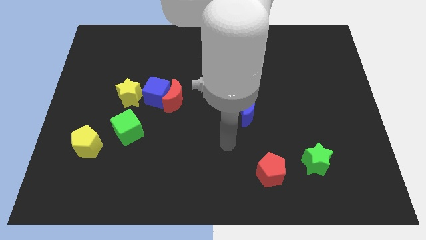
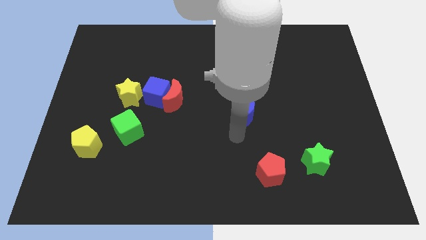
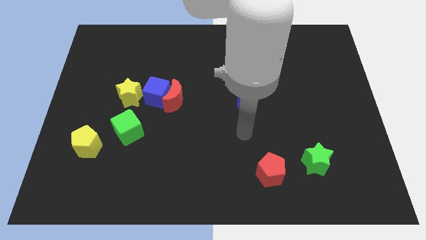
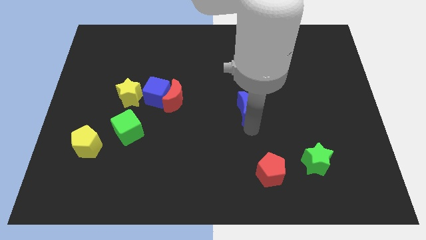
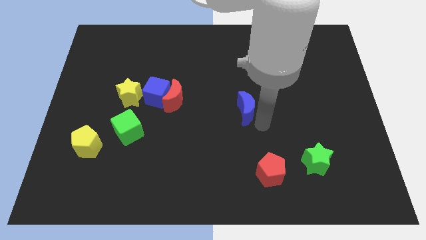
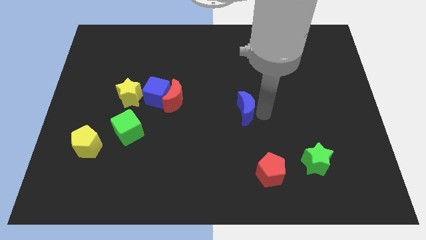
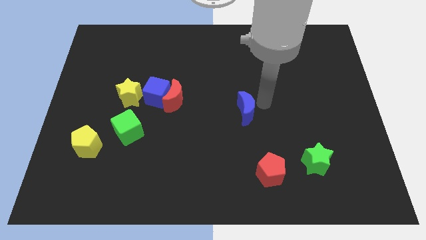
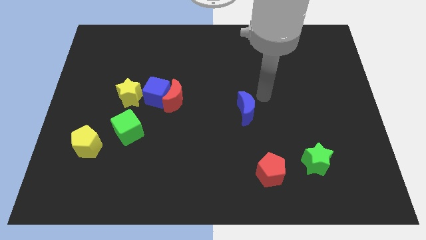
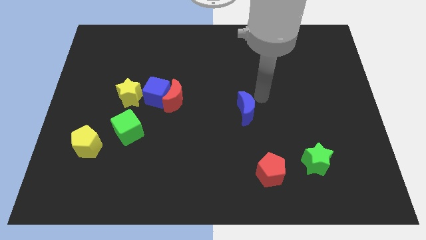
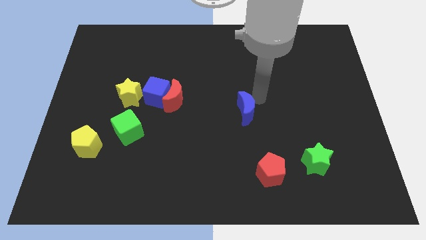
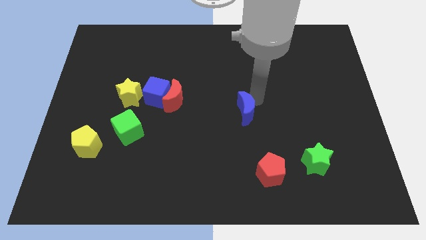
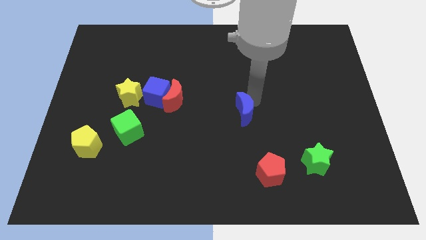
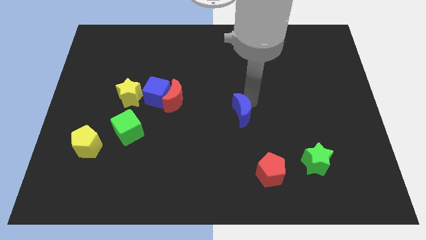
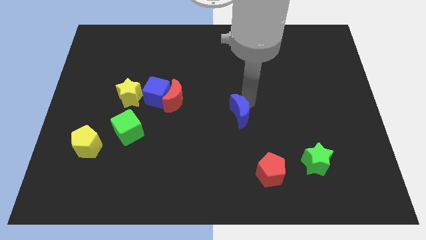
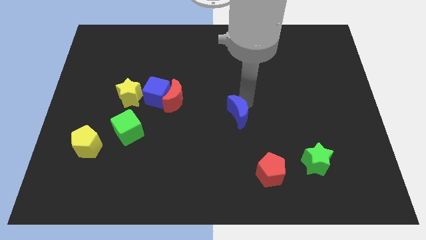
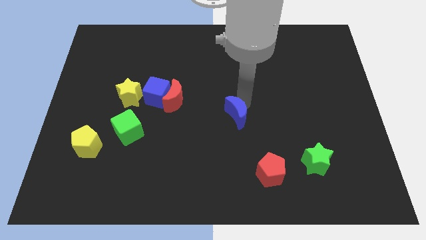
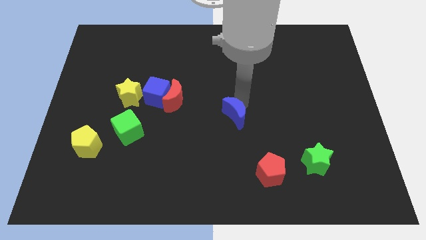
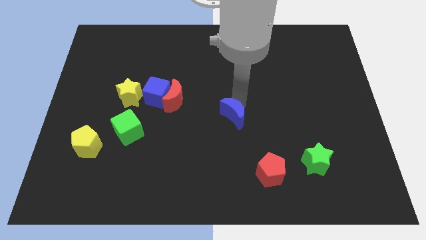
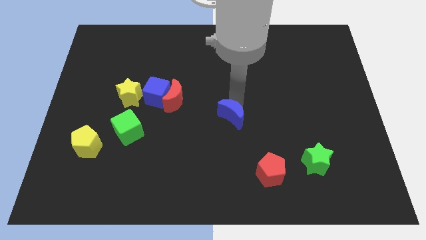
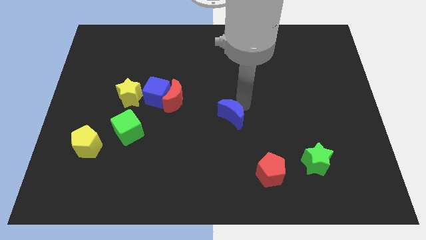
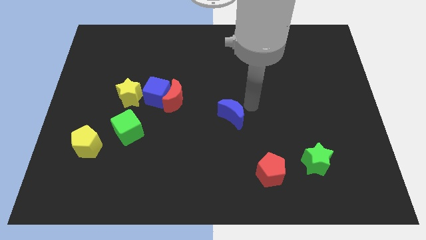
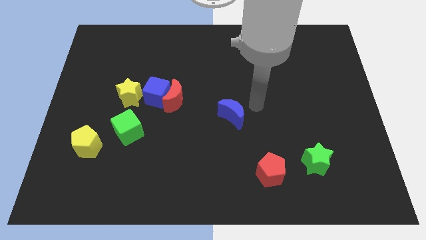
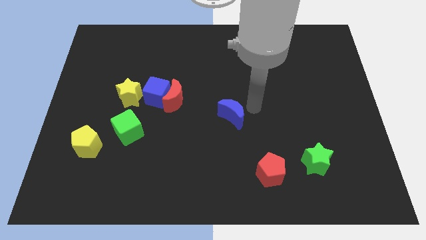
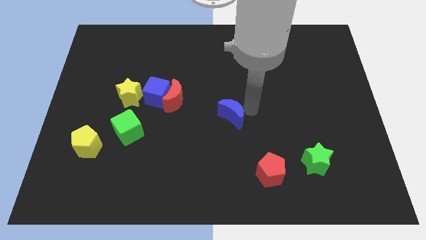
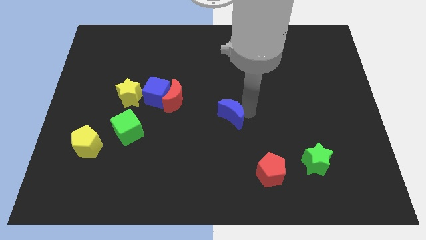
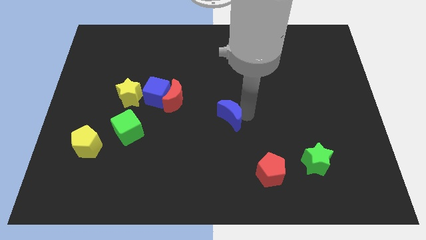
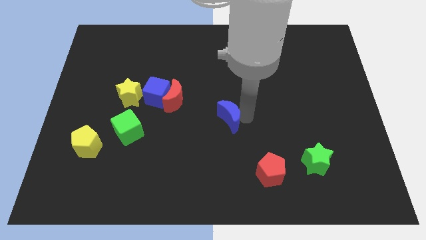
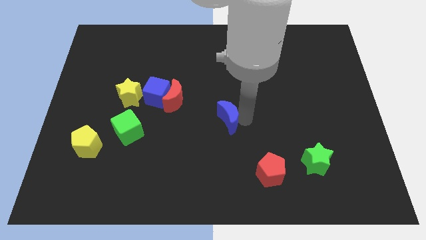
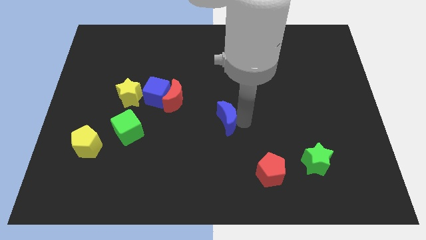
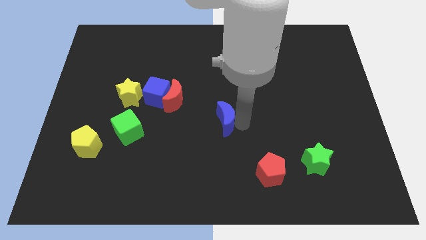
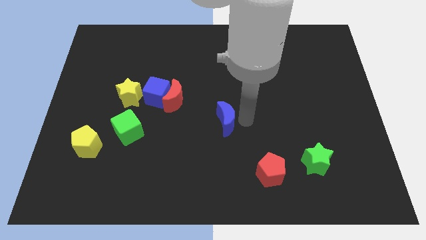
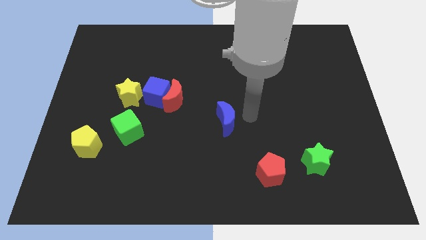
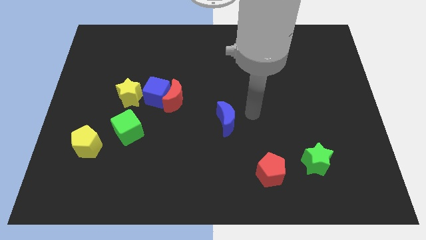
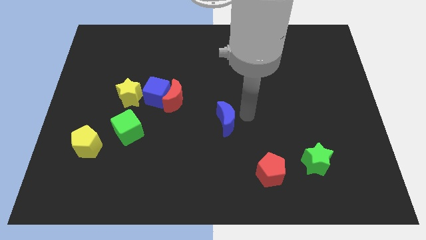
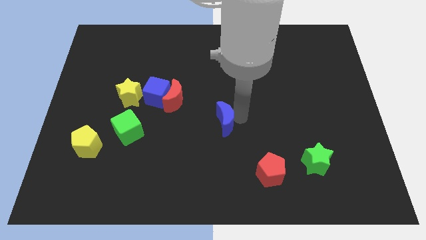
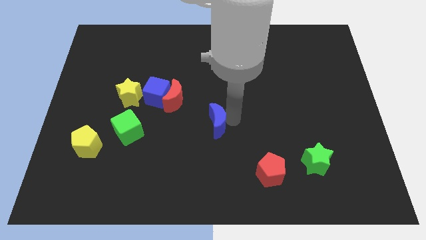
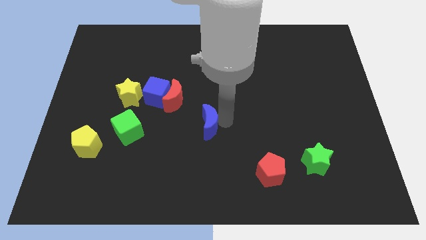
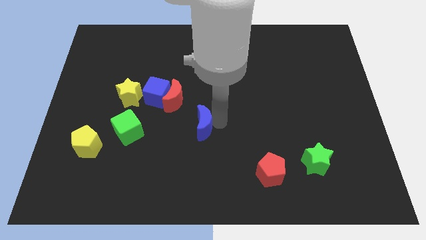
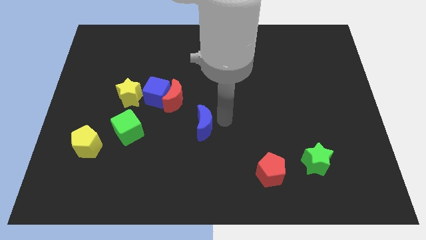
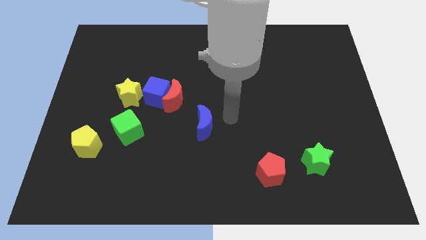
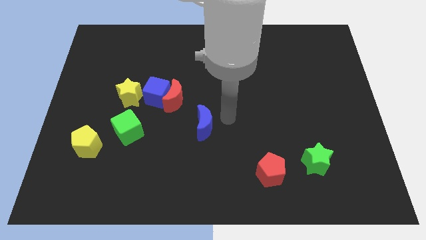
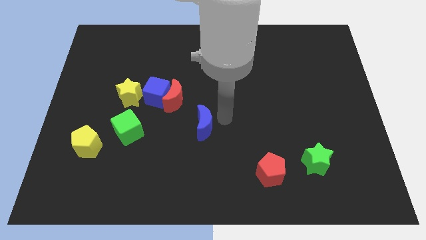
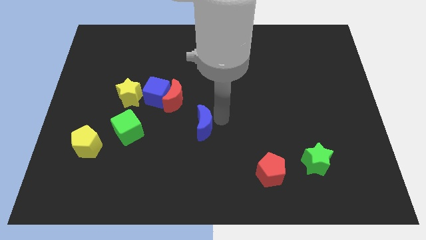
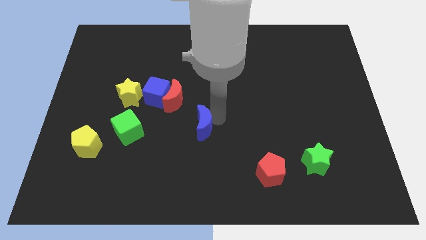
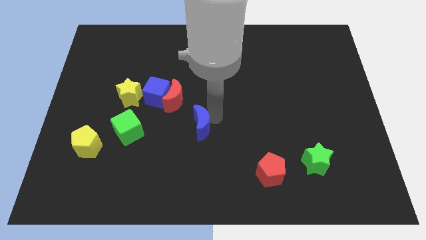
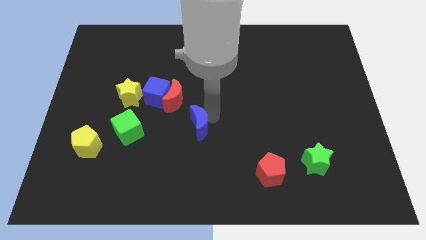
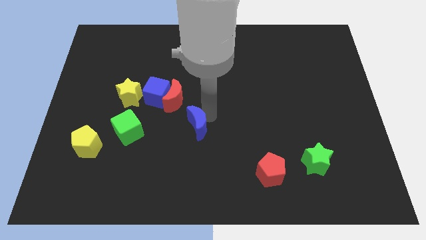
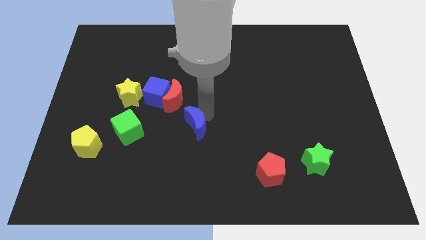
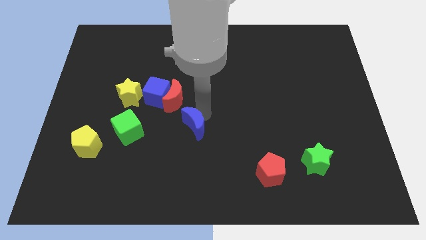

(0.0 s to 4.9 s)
put the blue moon to the bottom of the red moon

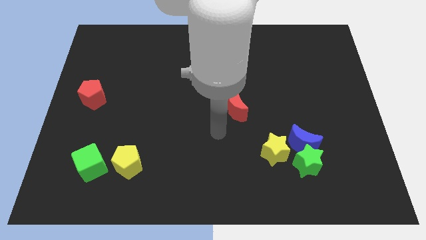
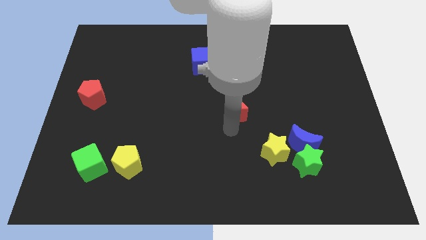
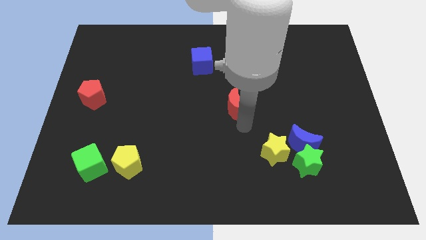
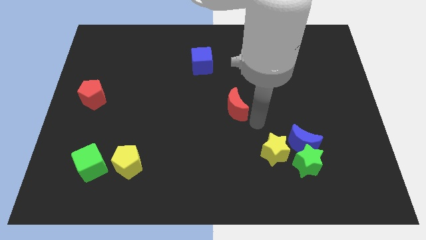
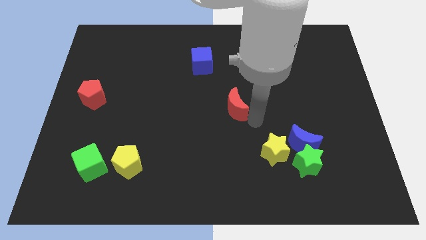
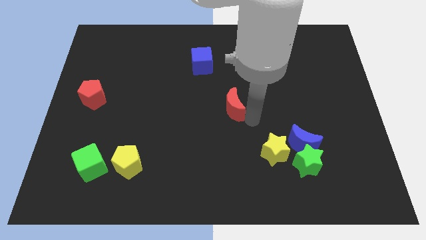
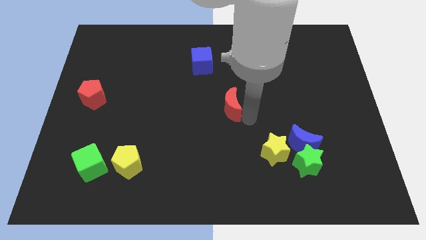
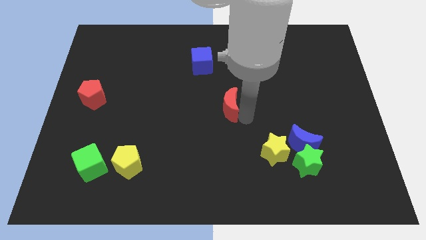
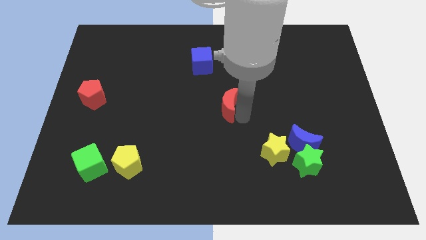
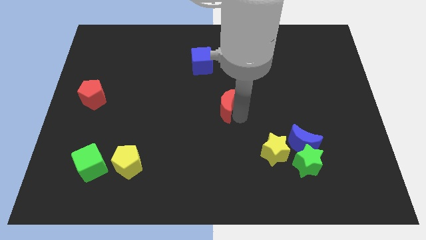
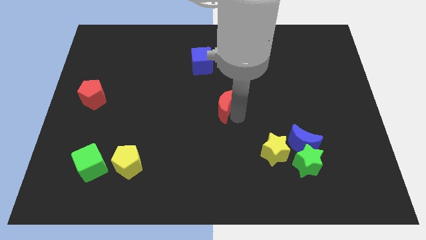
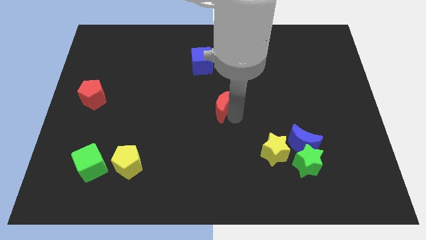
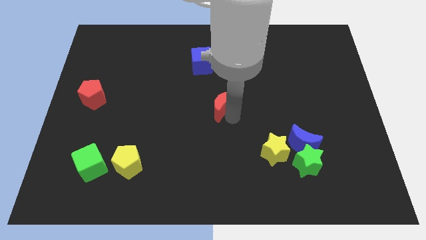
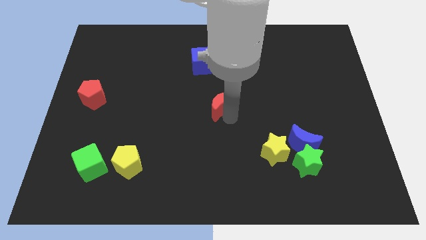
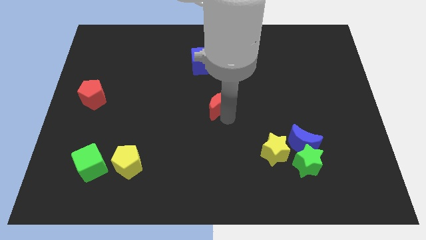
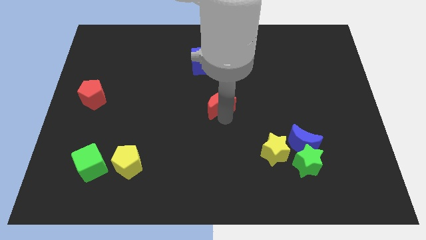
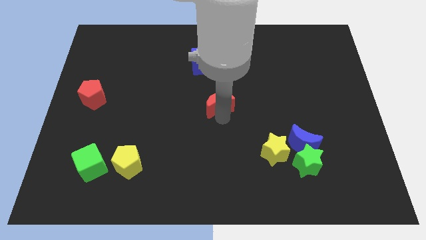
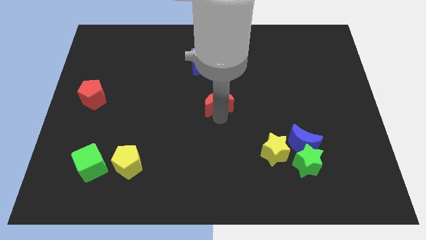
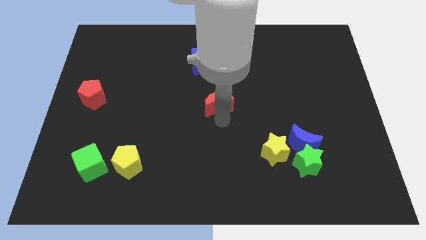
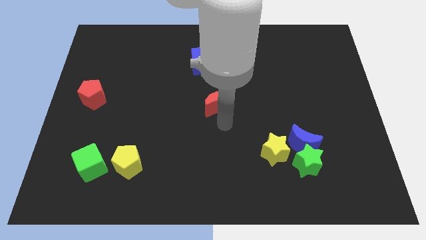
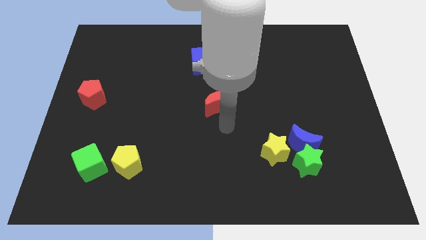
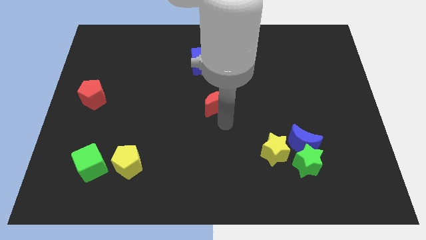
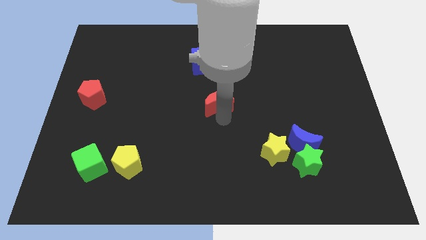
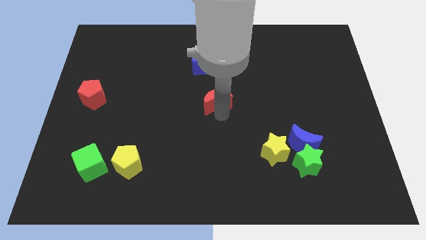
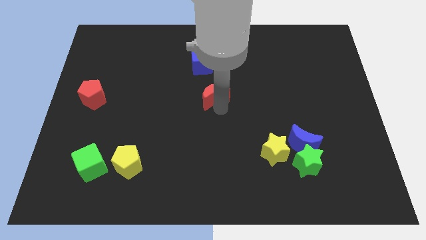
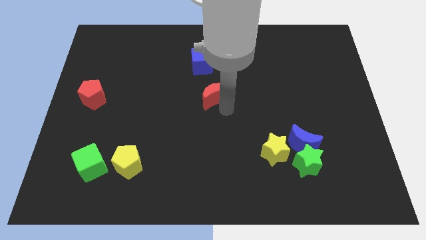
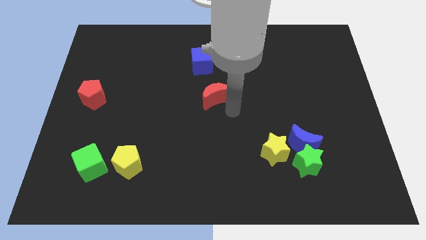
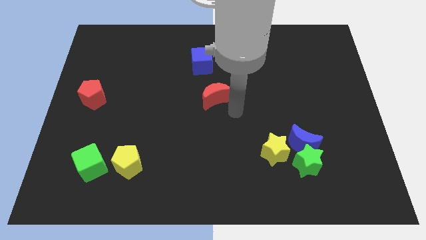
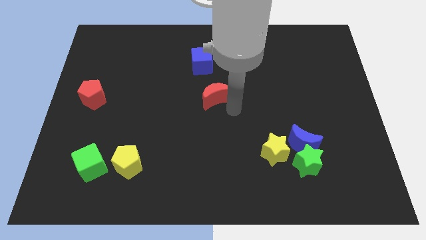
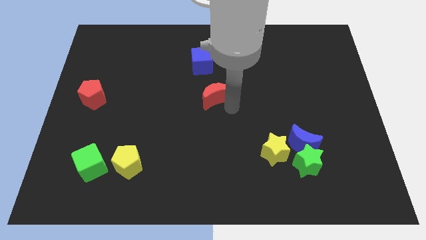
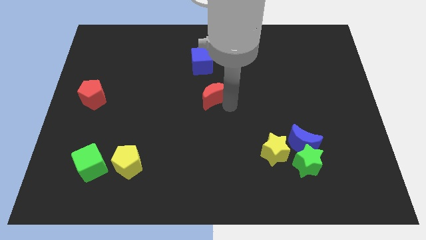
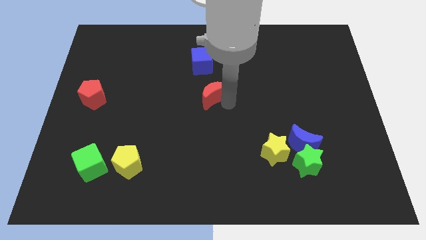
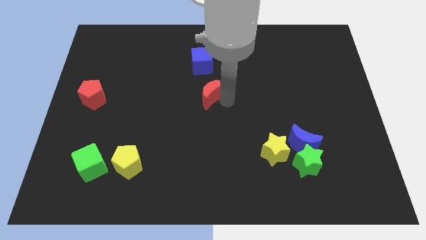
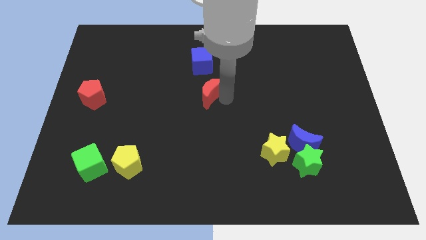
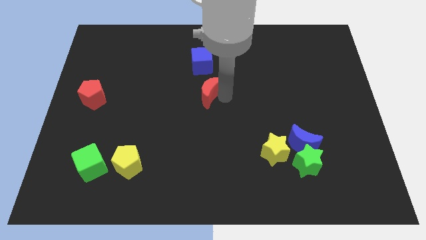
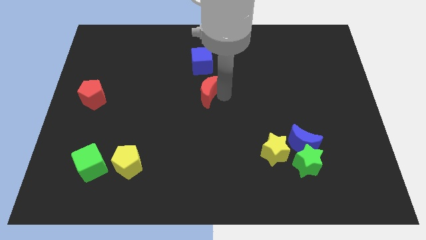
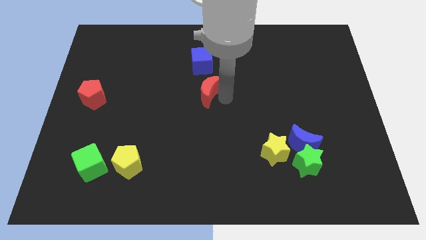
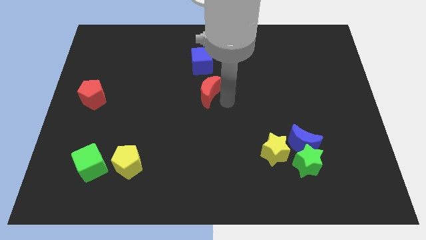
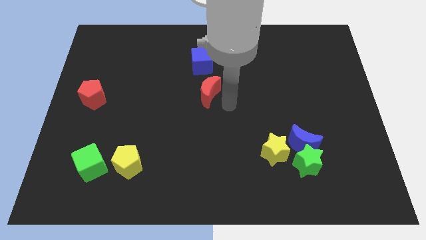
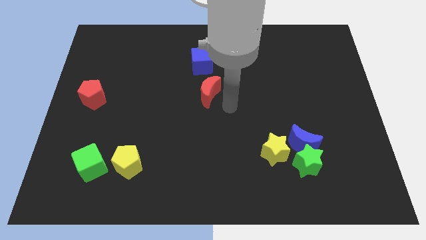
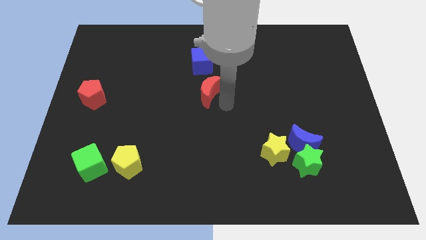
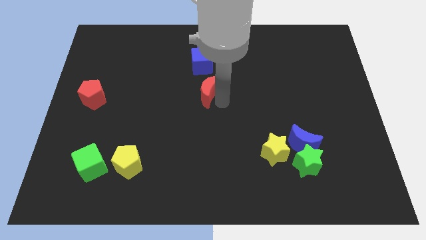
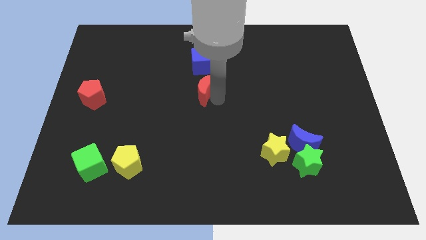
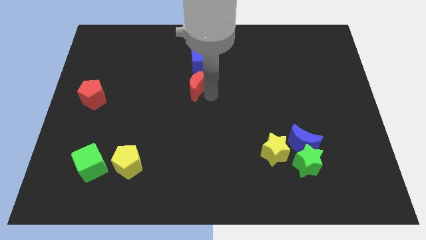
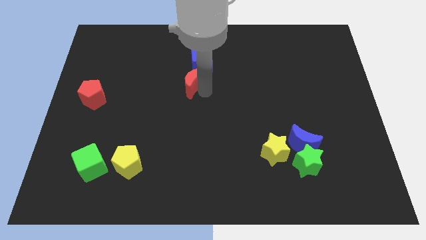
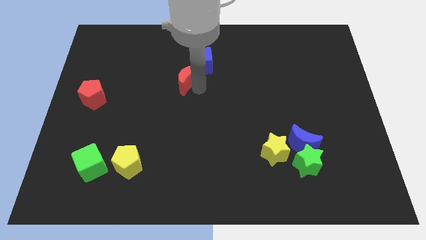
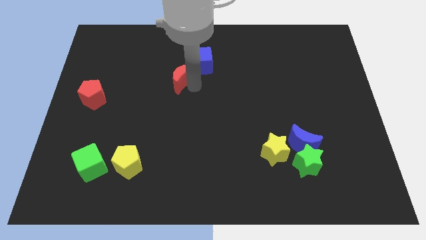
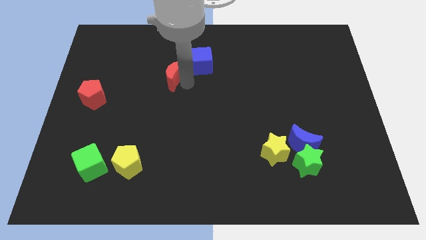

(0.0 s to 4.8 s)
push the red moon left of the blue cube
